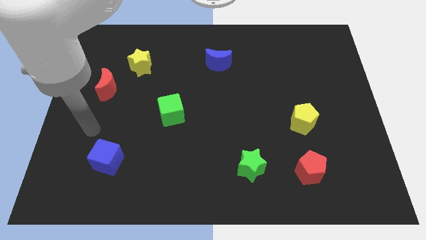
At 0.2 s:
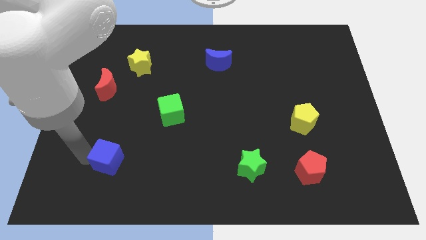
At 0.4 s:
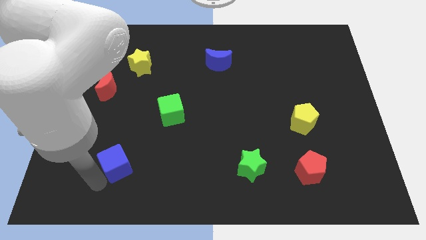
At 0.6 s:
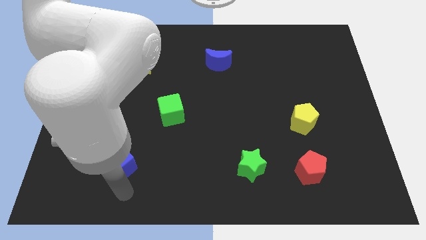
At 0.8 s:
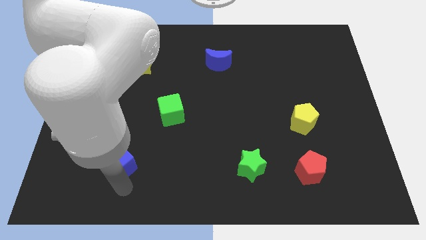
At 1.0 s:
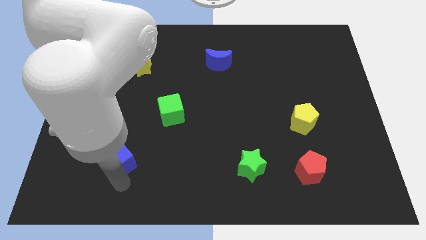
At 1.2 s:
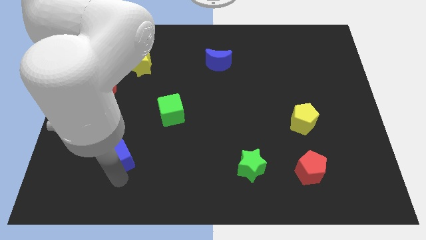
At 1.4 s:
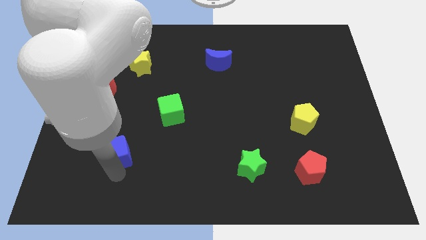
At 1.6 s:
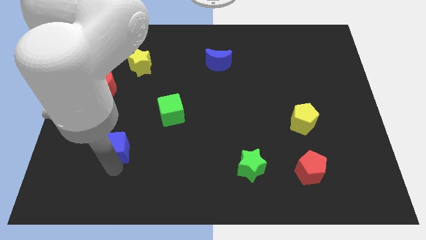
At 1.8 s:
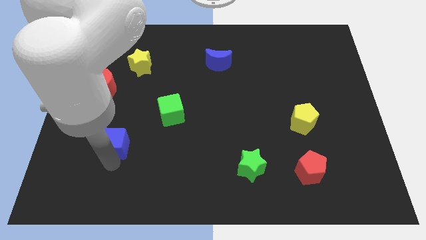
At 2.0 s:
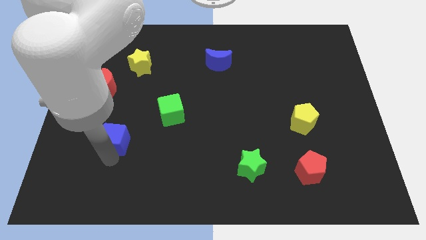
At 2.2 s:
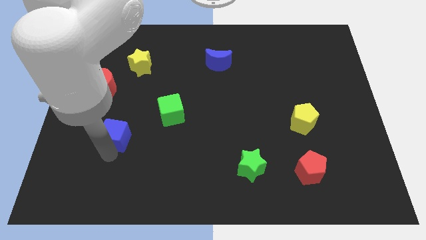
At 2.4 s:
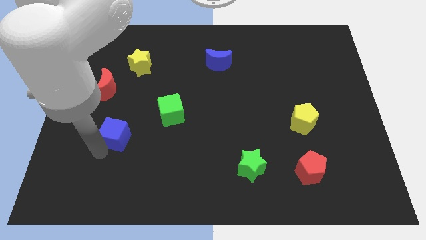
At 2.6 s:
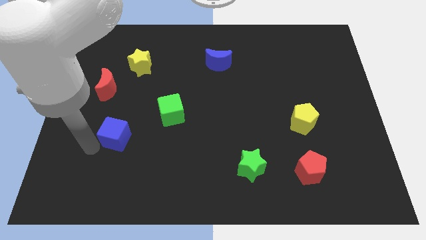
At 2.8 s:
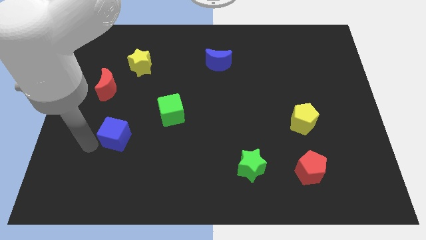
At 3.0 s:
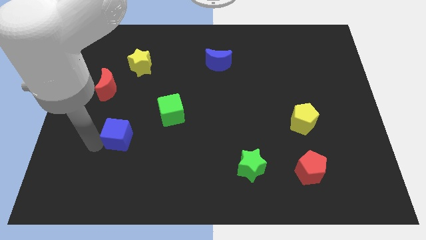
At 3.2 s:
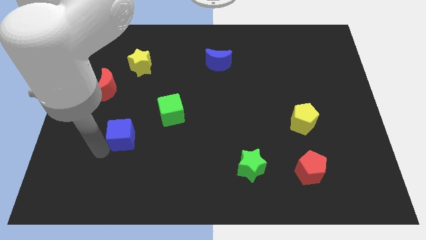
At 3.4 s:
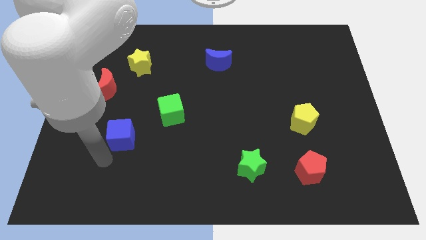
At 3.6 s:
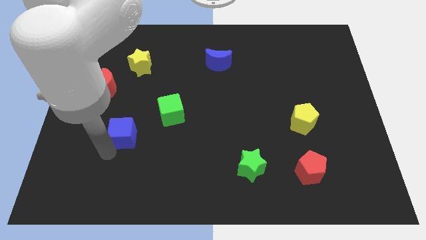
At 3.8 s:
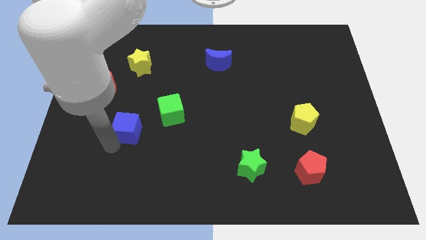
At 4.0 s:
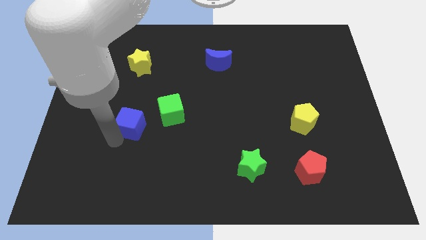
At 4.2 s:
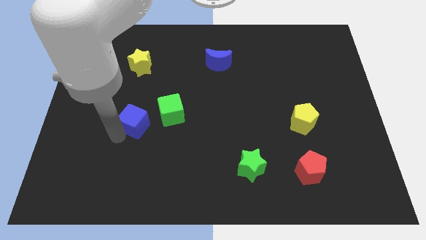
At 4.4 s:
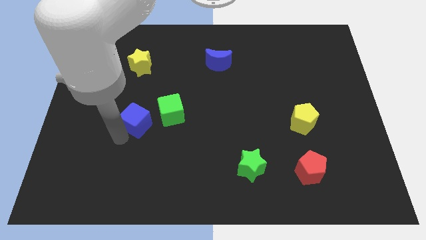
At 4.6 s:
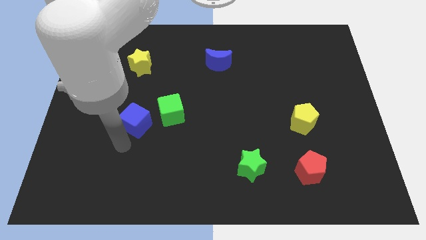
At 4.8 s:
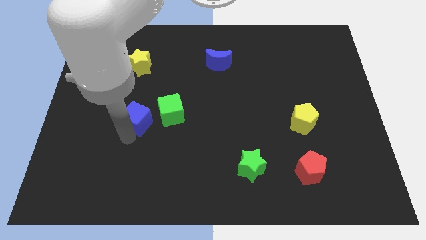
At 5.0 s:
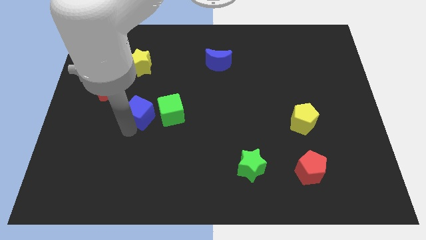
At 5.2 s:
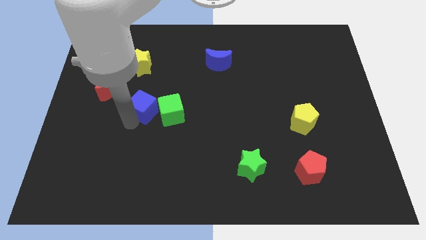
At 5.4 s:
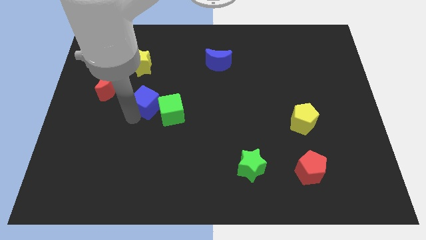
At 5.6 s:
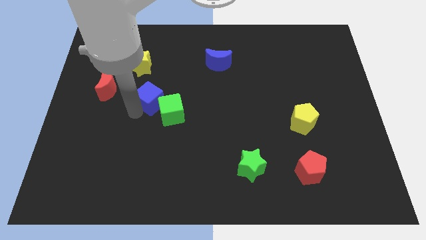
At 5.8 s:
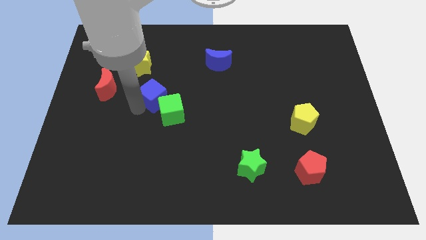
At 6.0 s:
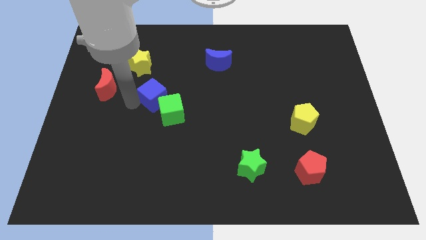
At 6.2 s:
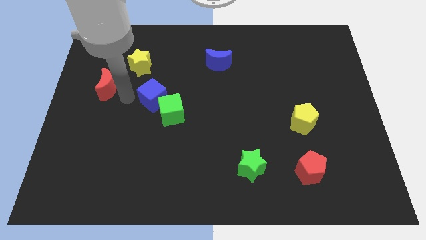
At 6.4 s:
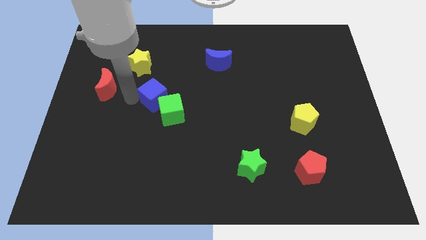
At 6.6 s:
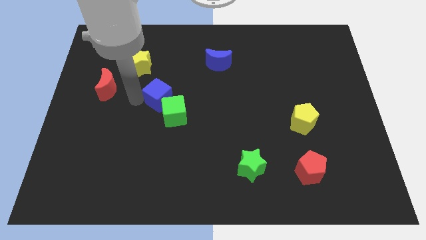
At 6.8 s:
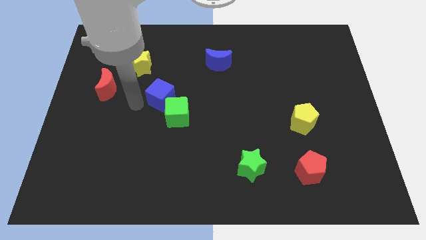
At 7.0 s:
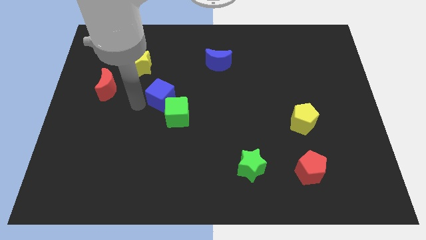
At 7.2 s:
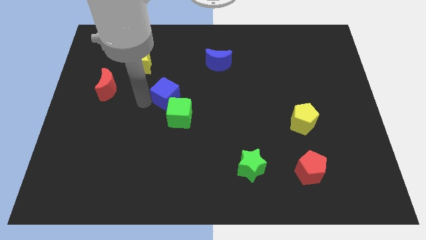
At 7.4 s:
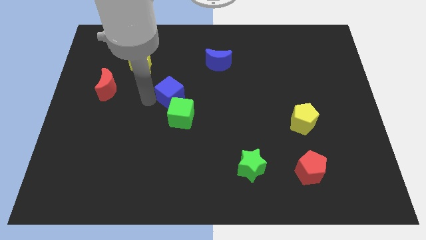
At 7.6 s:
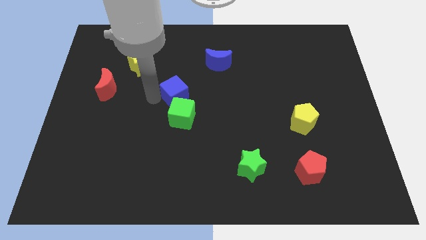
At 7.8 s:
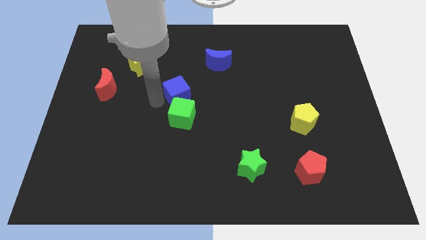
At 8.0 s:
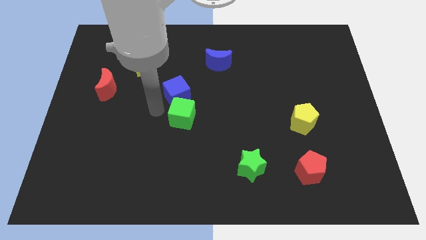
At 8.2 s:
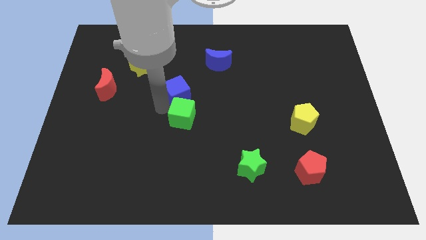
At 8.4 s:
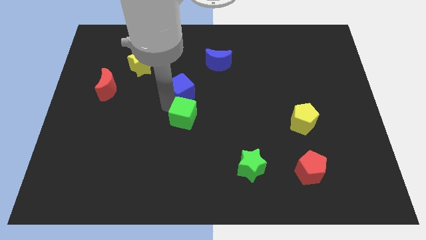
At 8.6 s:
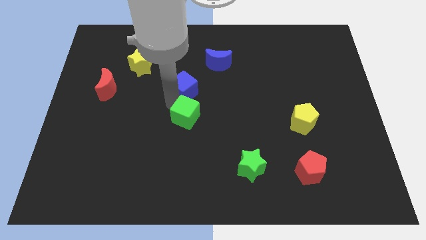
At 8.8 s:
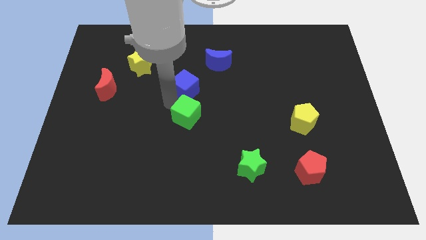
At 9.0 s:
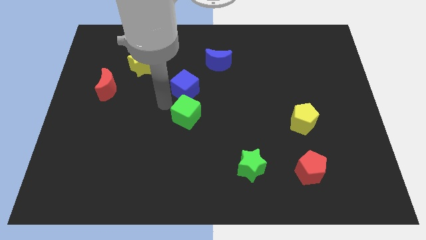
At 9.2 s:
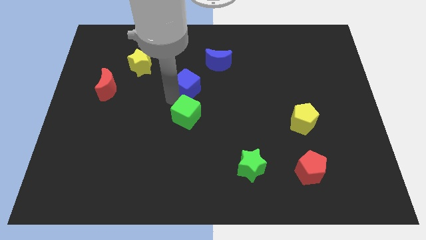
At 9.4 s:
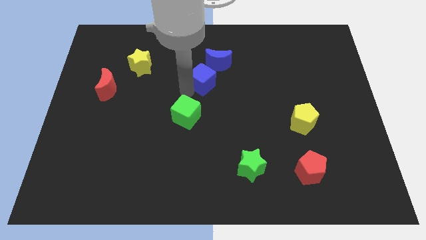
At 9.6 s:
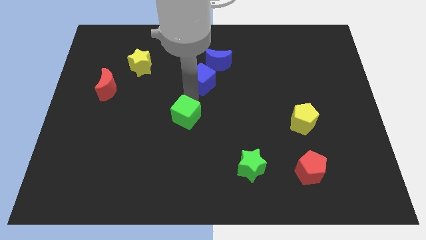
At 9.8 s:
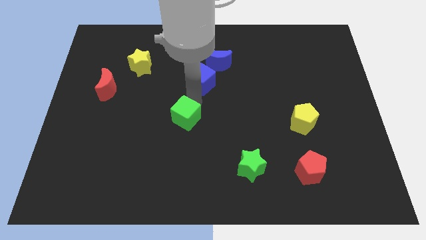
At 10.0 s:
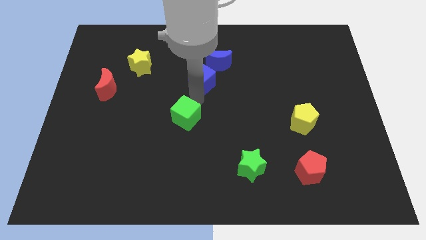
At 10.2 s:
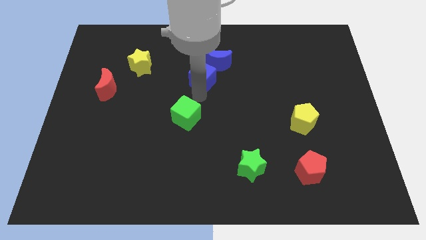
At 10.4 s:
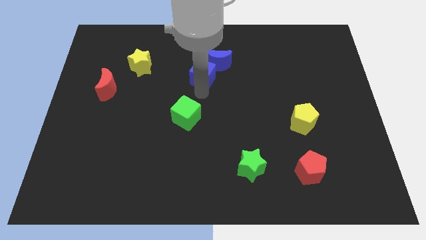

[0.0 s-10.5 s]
move the blue cube towards the blue moon

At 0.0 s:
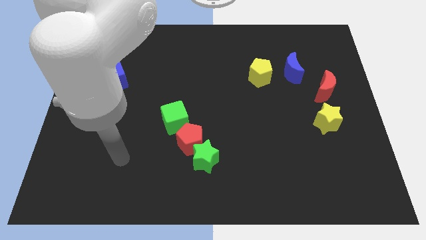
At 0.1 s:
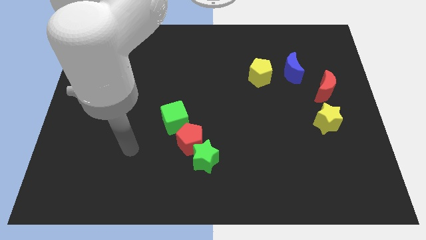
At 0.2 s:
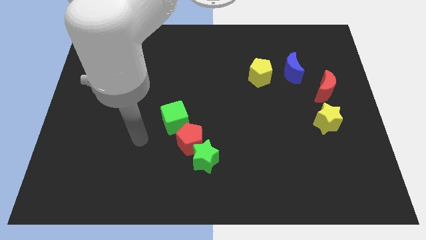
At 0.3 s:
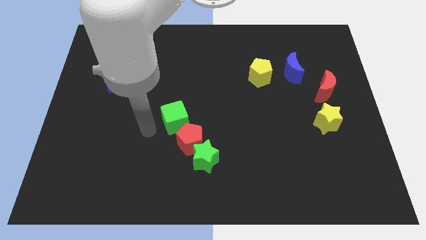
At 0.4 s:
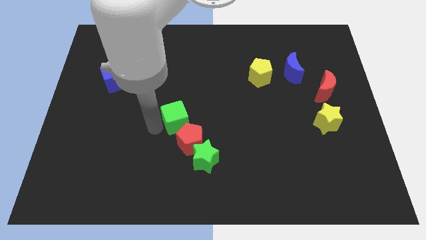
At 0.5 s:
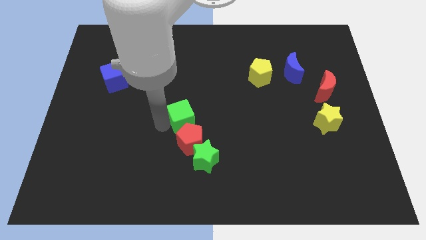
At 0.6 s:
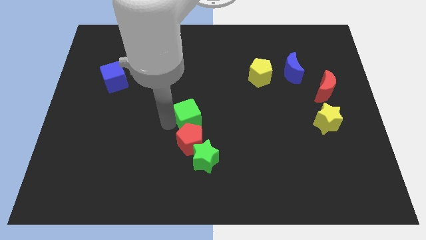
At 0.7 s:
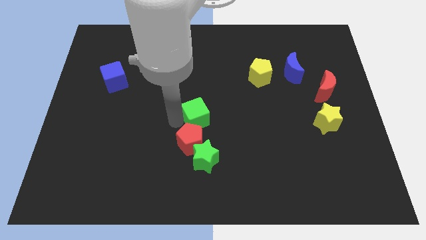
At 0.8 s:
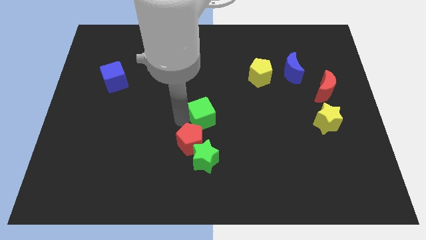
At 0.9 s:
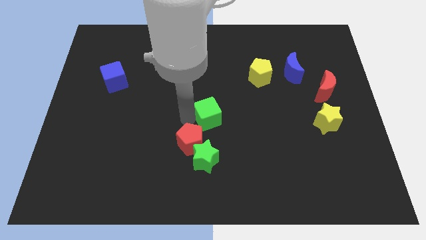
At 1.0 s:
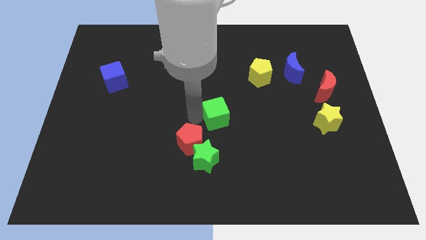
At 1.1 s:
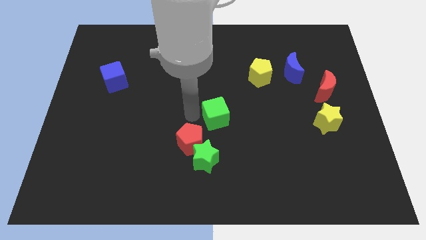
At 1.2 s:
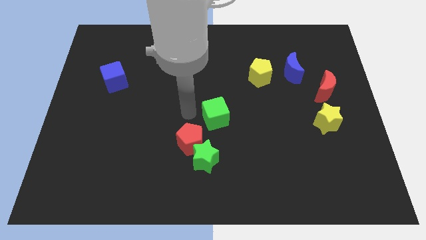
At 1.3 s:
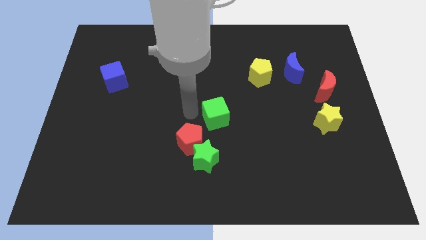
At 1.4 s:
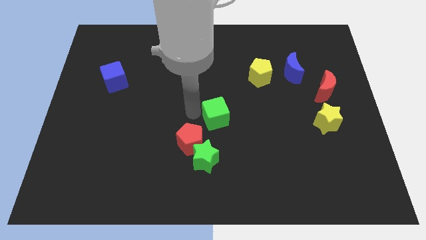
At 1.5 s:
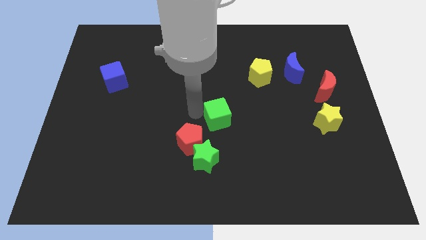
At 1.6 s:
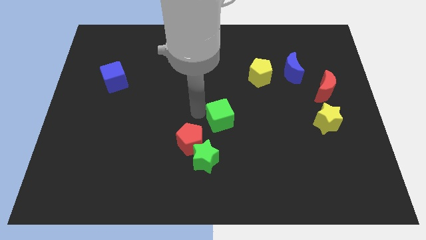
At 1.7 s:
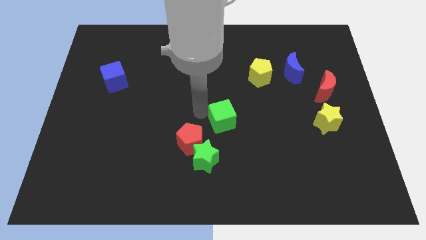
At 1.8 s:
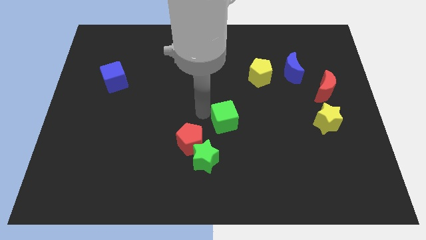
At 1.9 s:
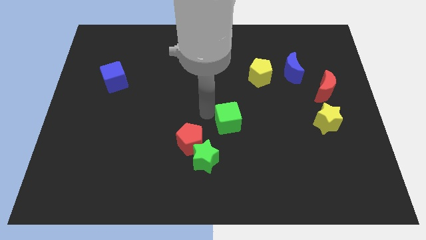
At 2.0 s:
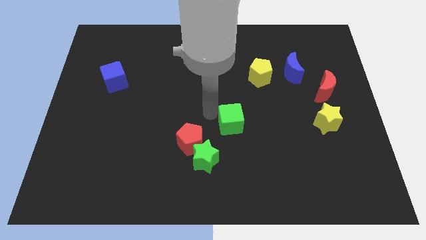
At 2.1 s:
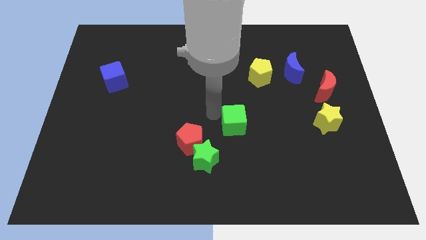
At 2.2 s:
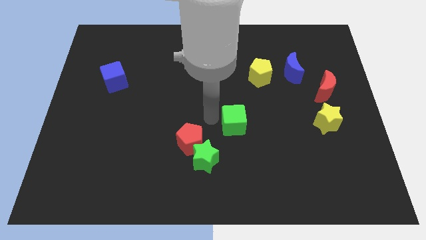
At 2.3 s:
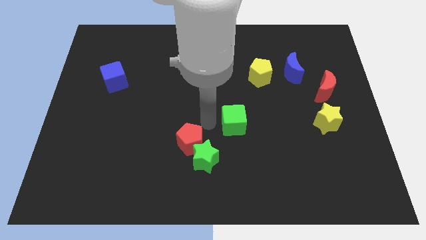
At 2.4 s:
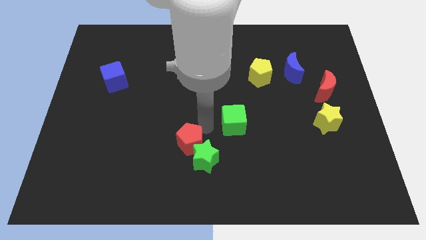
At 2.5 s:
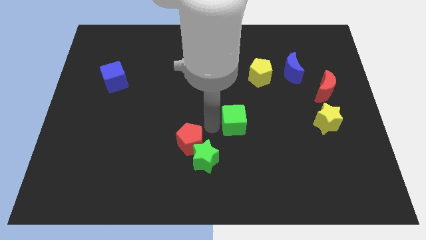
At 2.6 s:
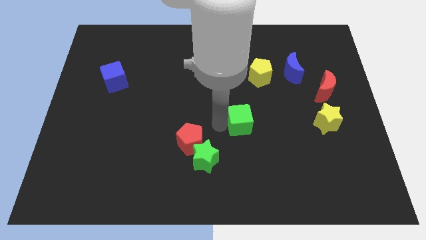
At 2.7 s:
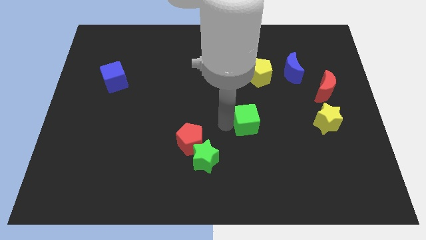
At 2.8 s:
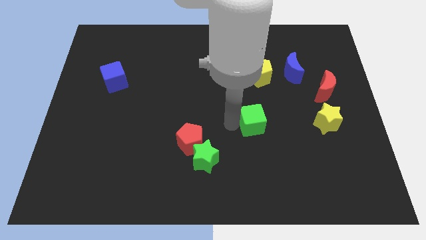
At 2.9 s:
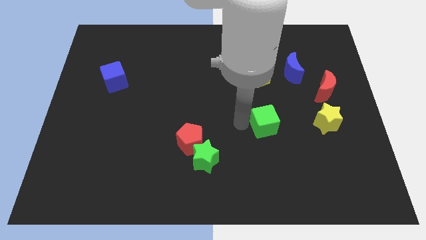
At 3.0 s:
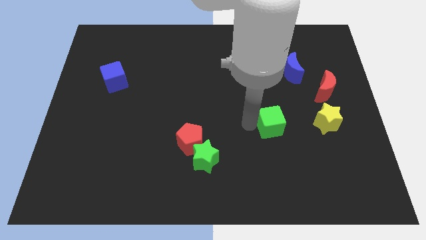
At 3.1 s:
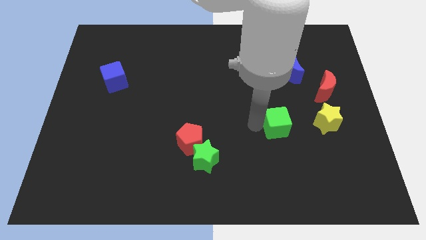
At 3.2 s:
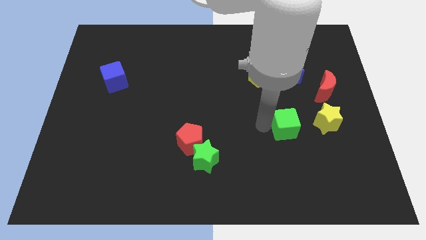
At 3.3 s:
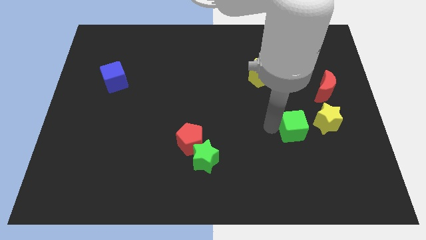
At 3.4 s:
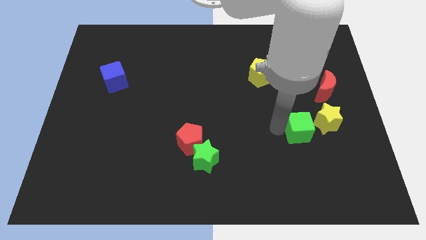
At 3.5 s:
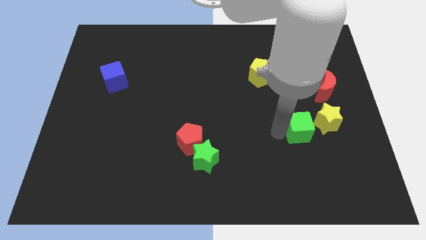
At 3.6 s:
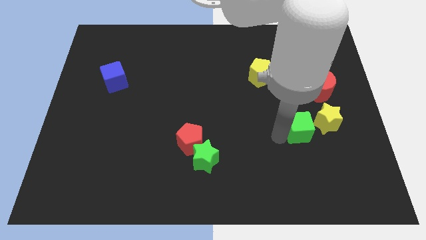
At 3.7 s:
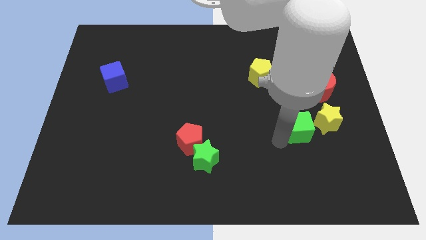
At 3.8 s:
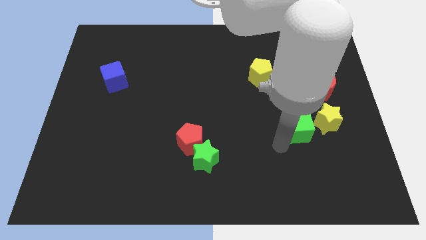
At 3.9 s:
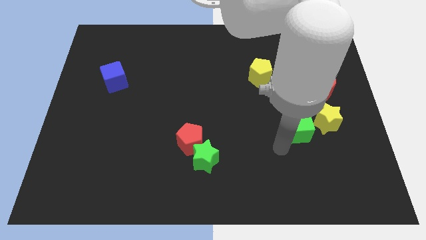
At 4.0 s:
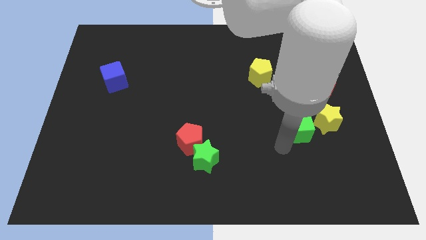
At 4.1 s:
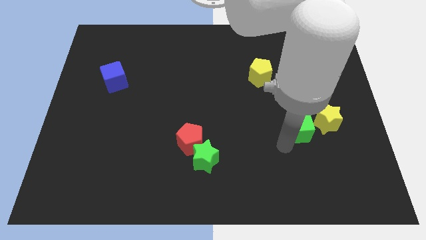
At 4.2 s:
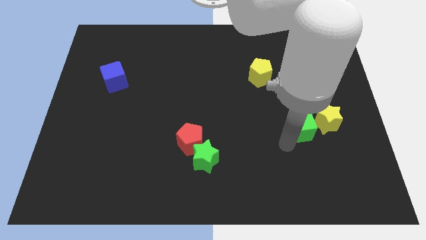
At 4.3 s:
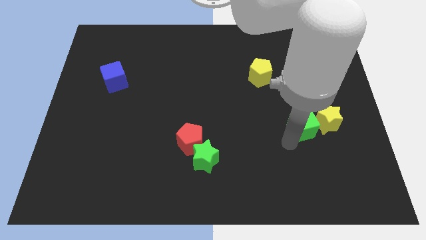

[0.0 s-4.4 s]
push the green cube next to the yellow star
